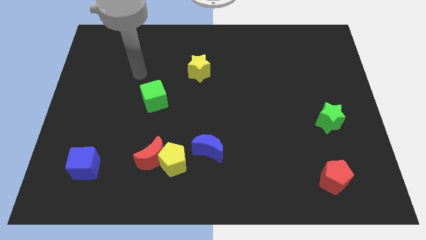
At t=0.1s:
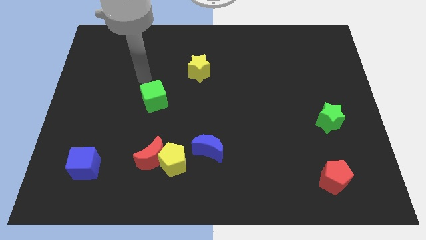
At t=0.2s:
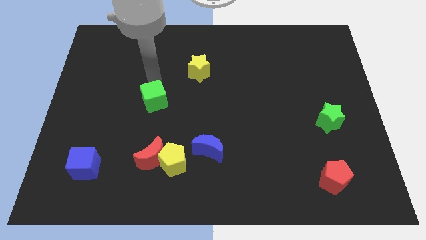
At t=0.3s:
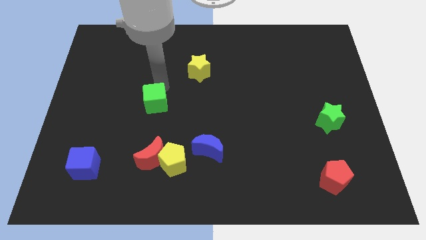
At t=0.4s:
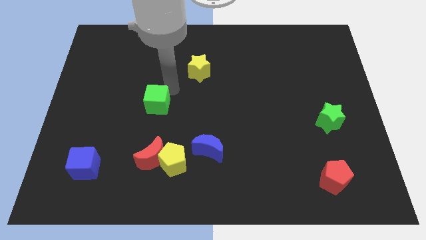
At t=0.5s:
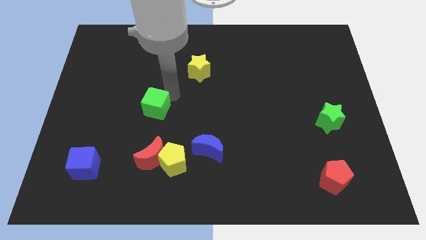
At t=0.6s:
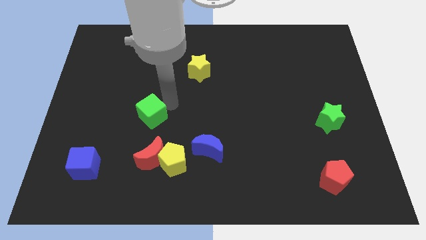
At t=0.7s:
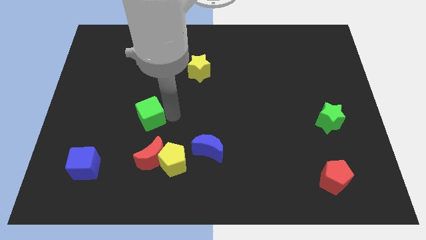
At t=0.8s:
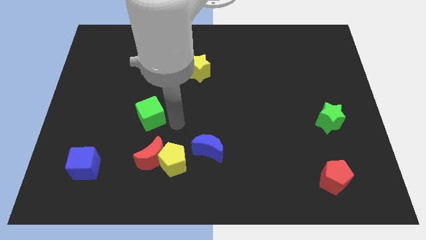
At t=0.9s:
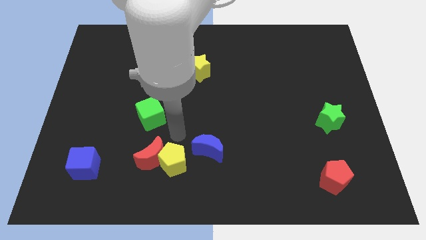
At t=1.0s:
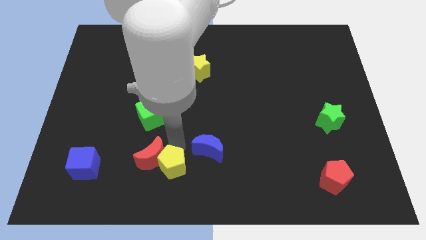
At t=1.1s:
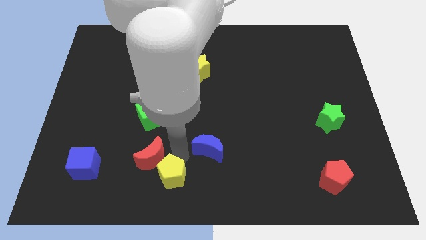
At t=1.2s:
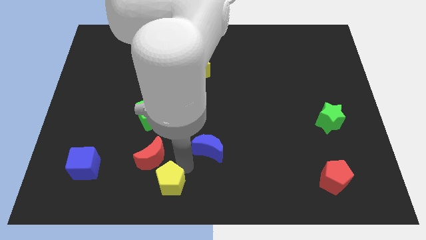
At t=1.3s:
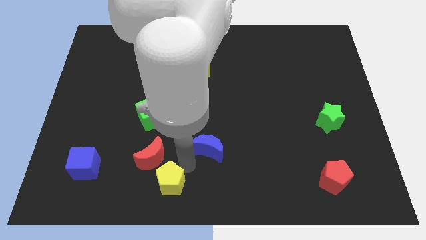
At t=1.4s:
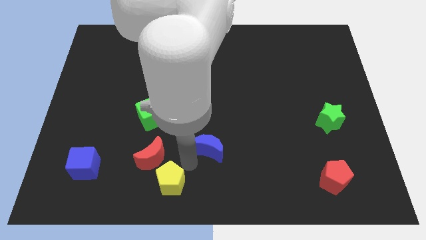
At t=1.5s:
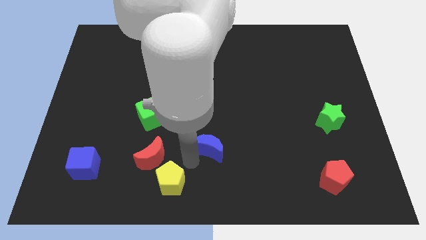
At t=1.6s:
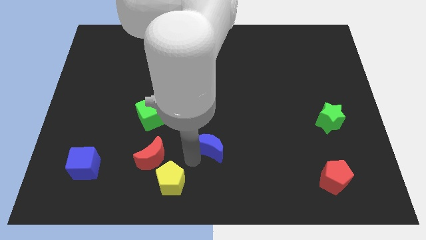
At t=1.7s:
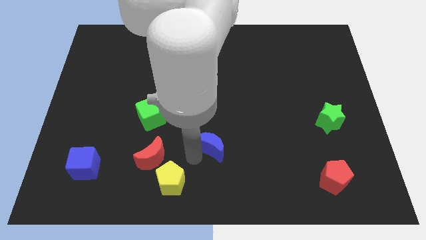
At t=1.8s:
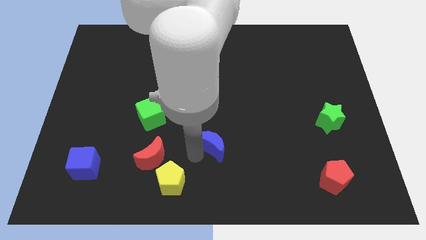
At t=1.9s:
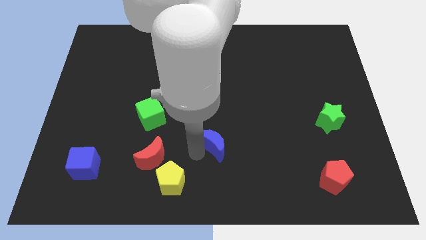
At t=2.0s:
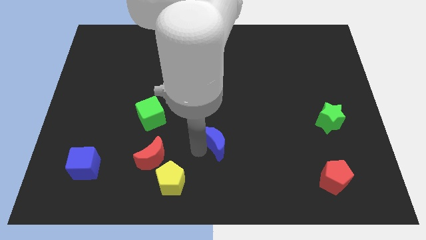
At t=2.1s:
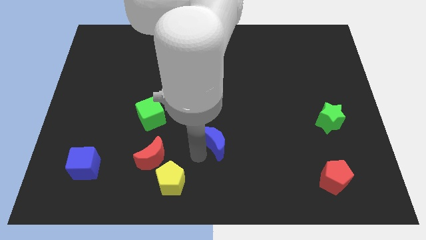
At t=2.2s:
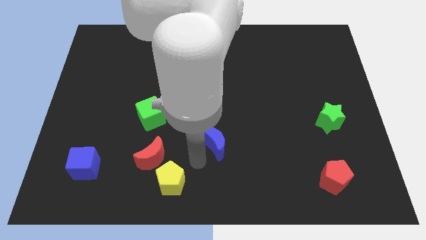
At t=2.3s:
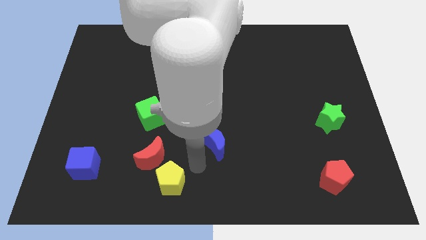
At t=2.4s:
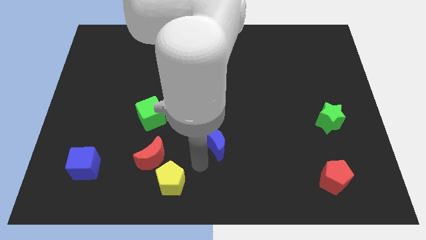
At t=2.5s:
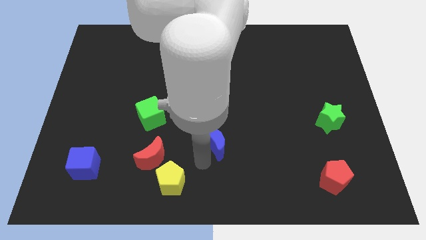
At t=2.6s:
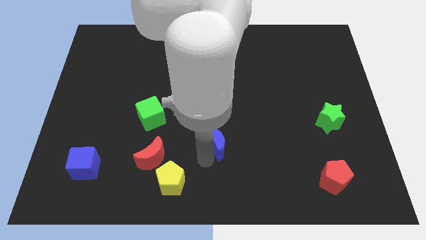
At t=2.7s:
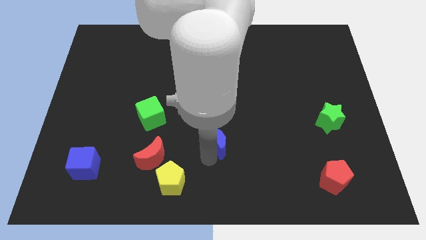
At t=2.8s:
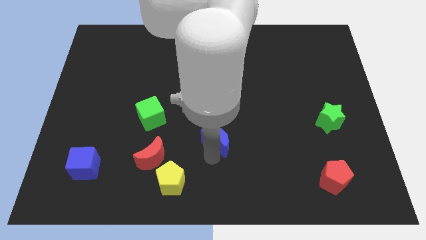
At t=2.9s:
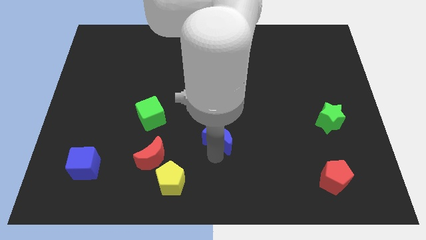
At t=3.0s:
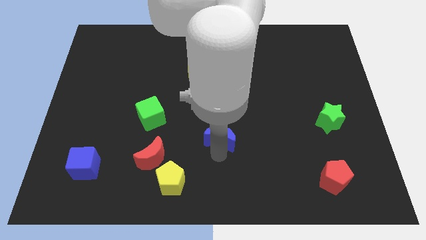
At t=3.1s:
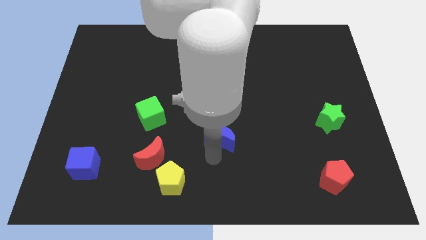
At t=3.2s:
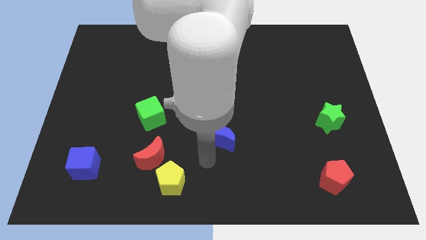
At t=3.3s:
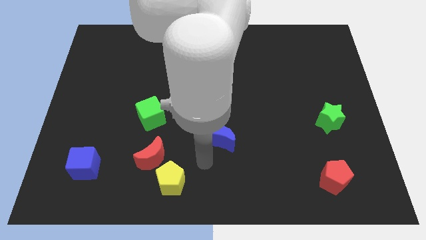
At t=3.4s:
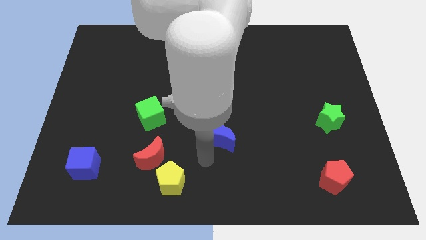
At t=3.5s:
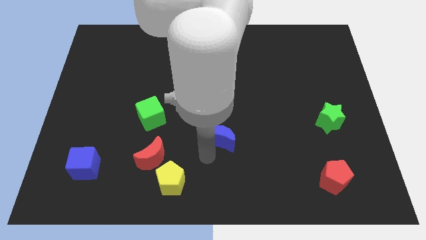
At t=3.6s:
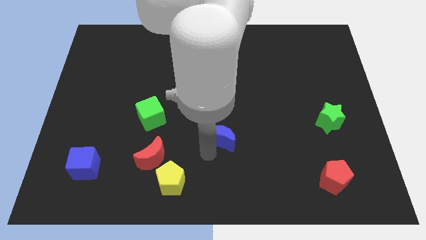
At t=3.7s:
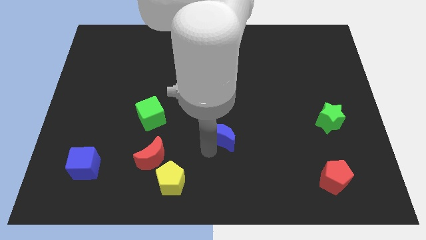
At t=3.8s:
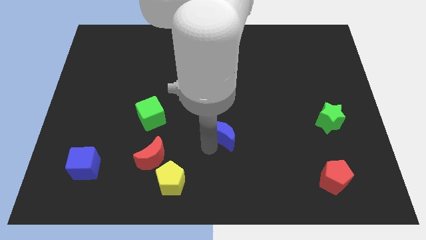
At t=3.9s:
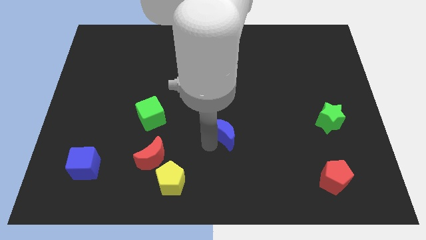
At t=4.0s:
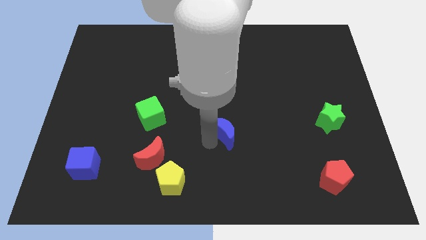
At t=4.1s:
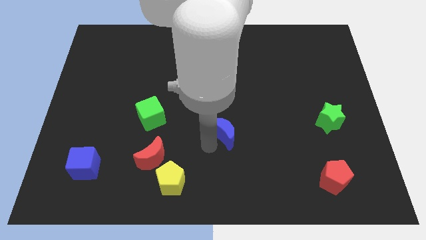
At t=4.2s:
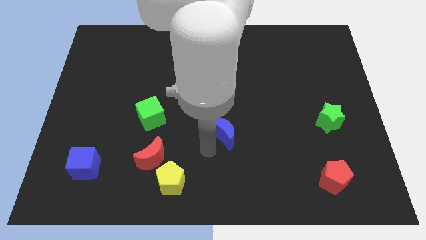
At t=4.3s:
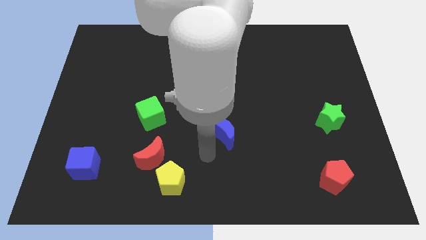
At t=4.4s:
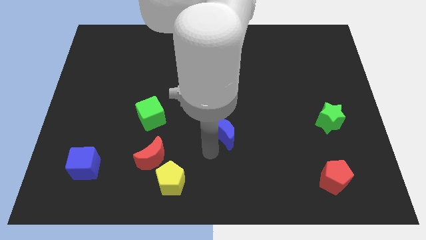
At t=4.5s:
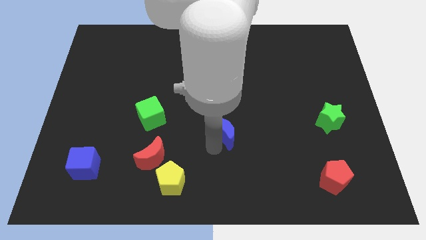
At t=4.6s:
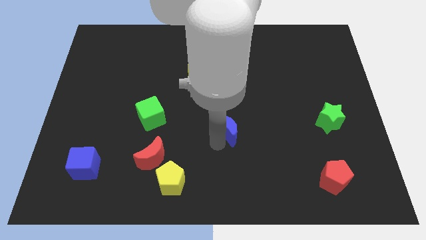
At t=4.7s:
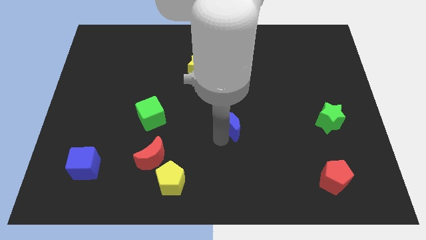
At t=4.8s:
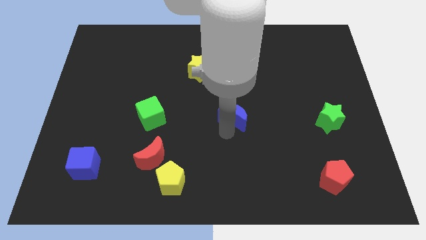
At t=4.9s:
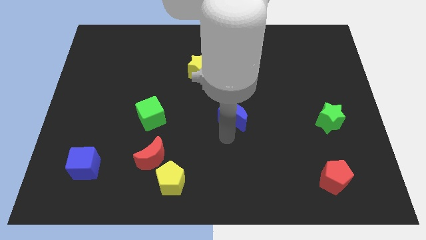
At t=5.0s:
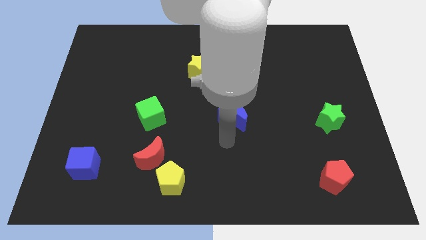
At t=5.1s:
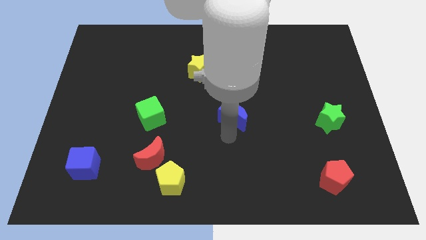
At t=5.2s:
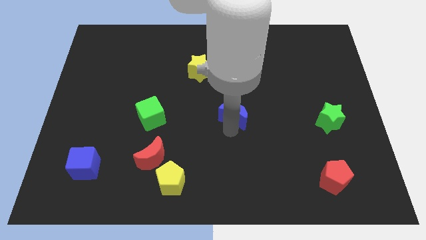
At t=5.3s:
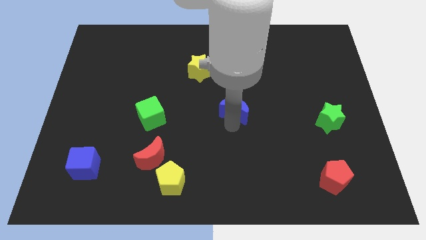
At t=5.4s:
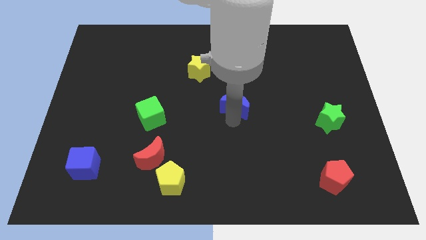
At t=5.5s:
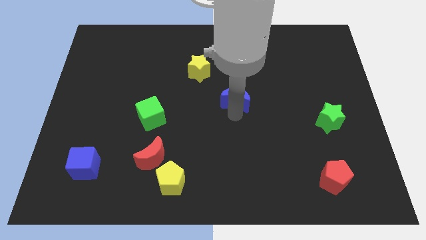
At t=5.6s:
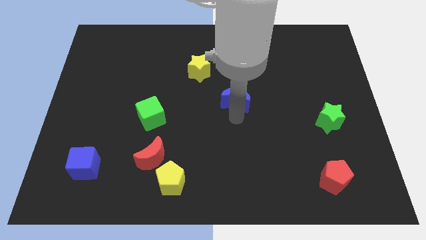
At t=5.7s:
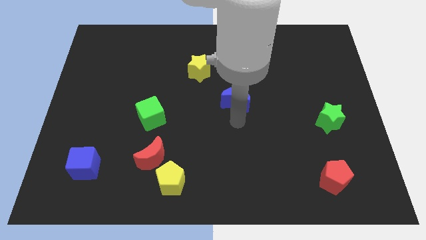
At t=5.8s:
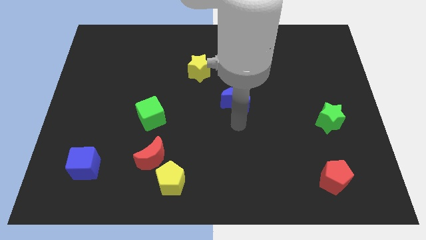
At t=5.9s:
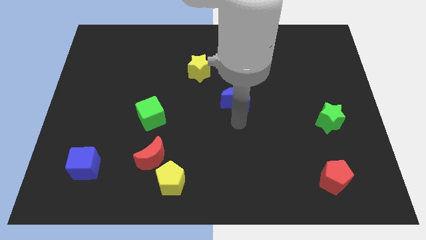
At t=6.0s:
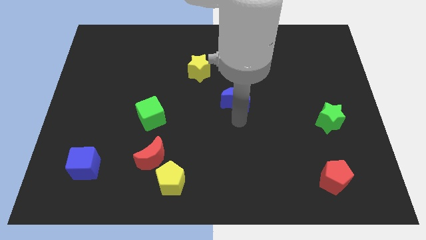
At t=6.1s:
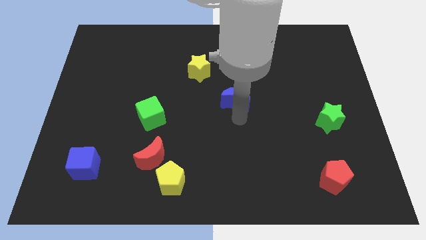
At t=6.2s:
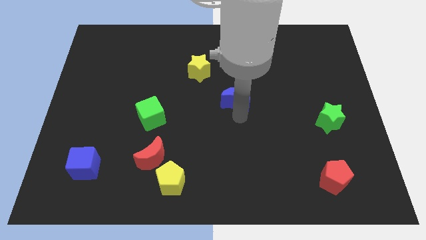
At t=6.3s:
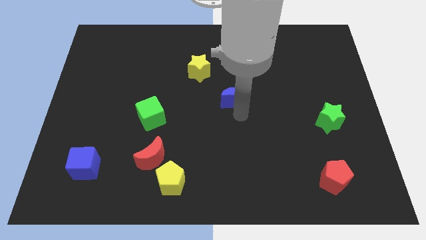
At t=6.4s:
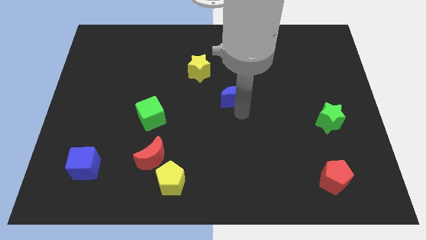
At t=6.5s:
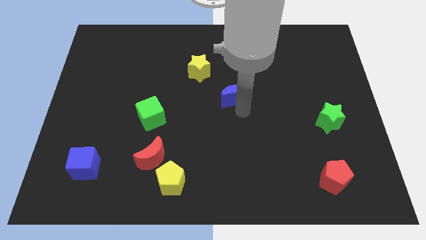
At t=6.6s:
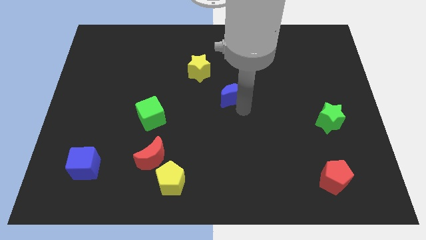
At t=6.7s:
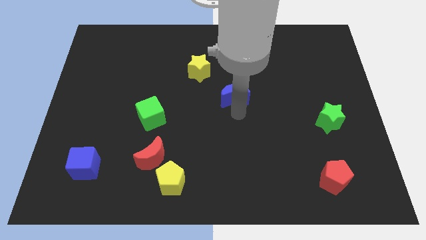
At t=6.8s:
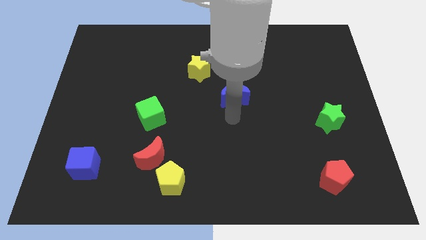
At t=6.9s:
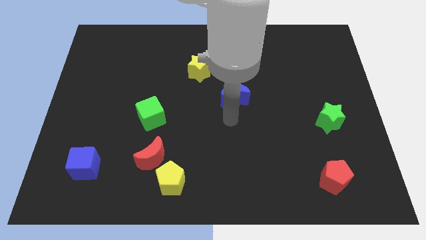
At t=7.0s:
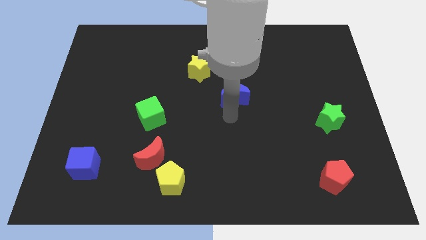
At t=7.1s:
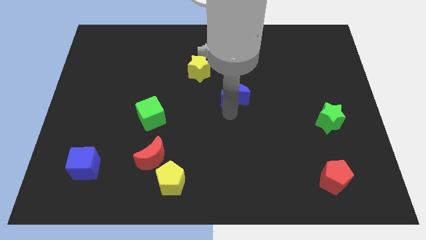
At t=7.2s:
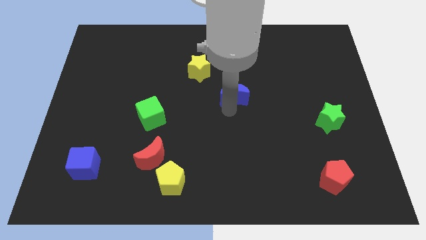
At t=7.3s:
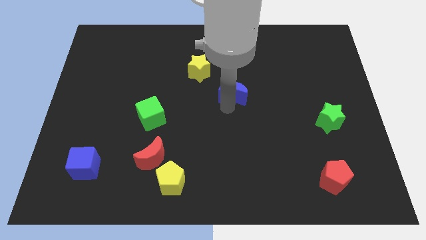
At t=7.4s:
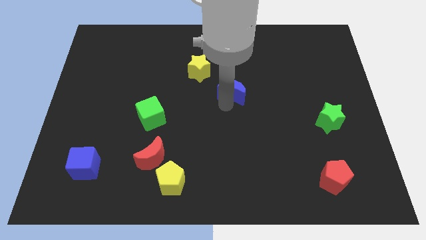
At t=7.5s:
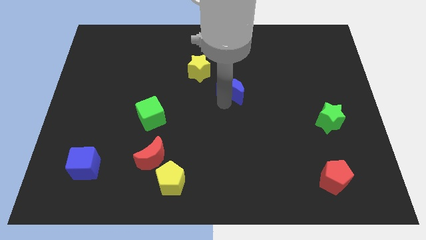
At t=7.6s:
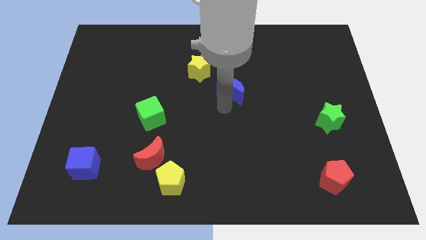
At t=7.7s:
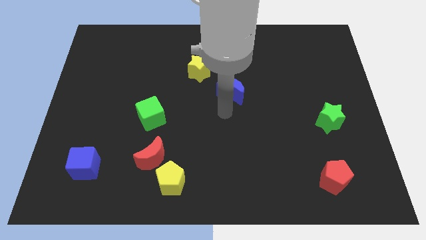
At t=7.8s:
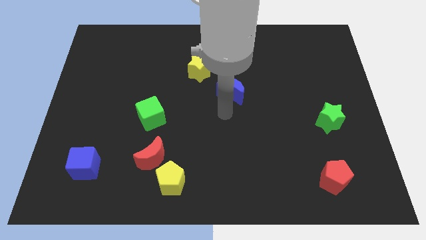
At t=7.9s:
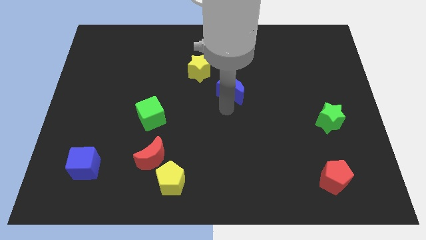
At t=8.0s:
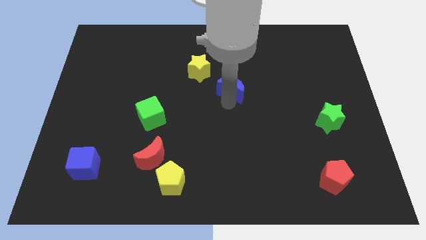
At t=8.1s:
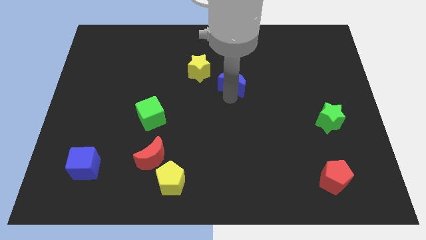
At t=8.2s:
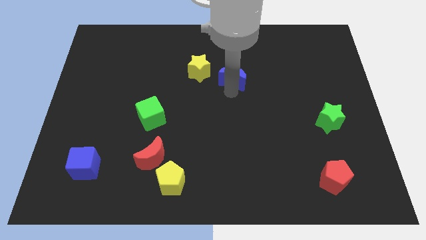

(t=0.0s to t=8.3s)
push the blue moon to the right side of the yellow star
